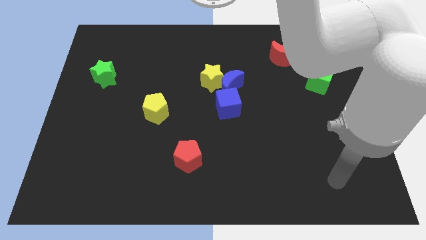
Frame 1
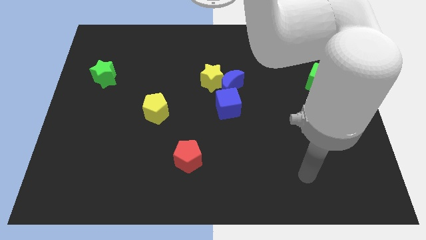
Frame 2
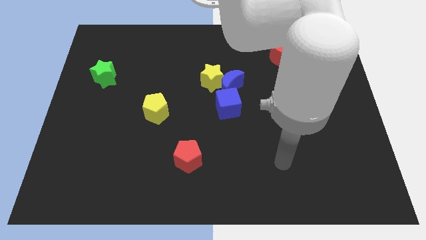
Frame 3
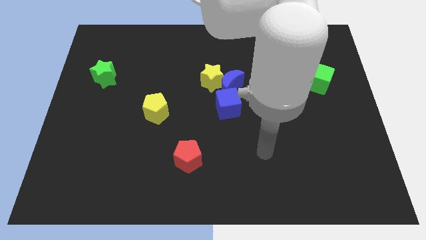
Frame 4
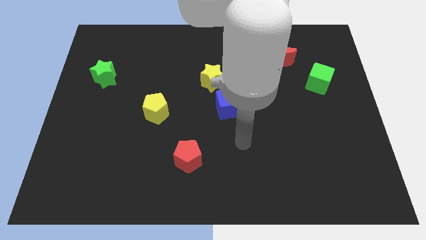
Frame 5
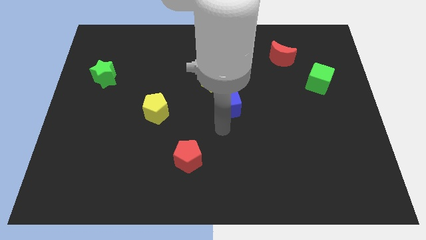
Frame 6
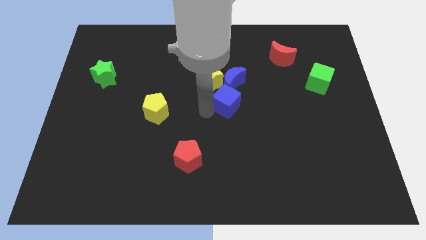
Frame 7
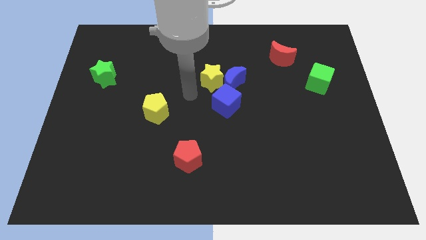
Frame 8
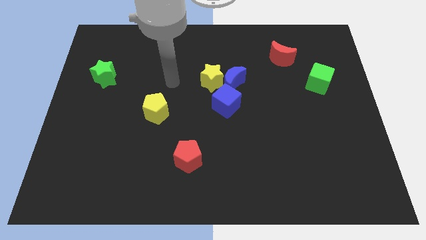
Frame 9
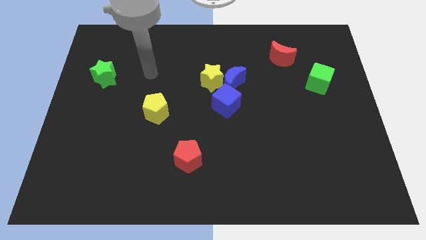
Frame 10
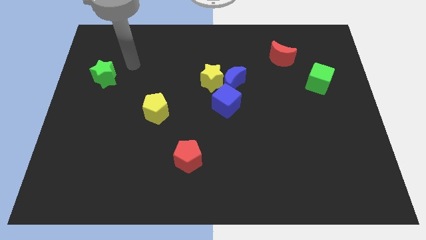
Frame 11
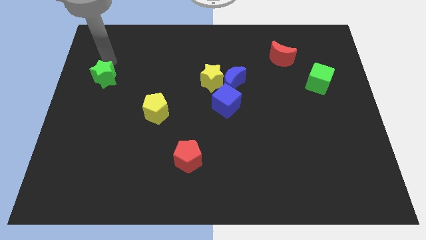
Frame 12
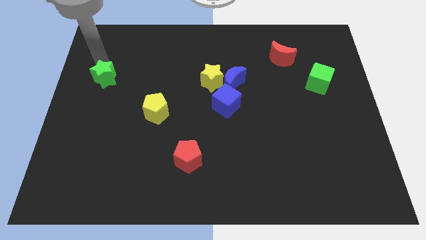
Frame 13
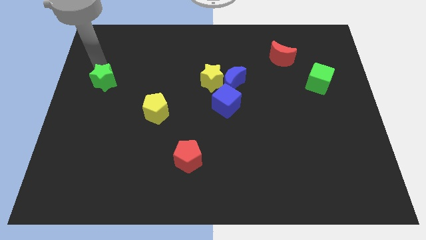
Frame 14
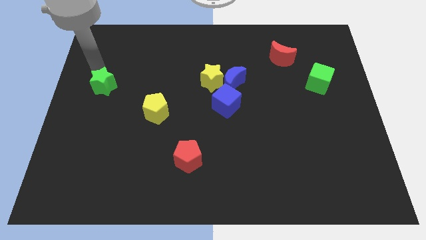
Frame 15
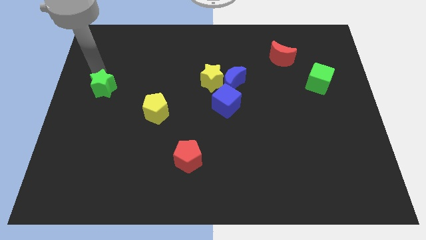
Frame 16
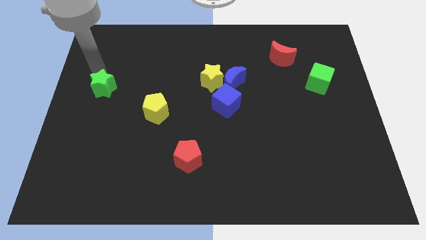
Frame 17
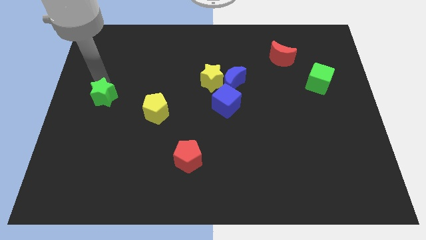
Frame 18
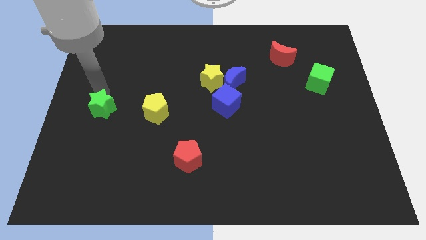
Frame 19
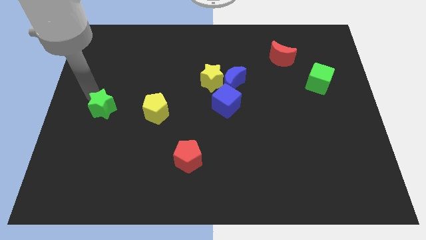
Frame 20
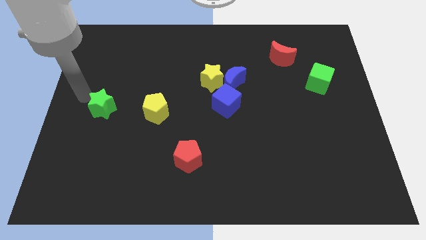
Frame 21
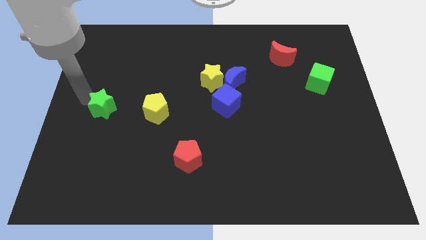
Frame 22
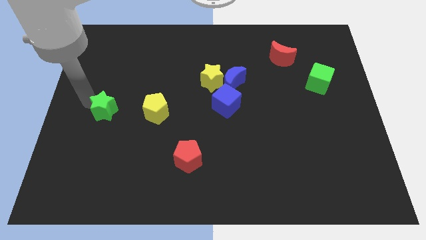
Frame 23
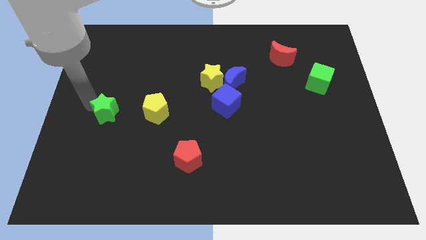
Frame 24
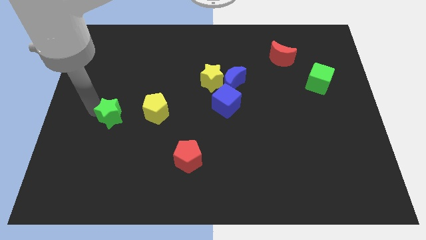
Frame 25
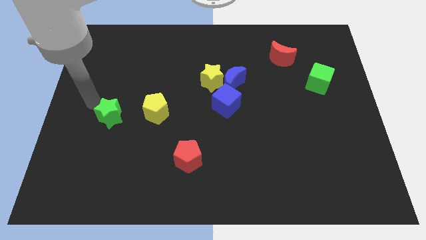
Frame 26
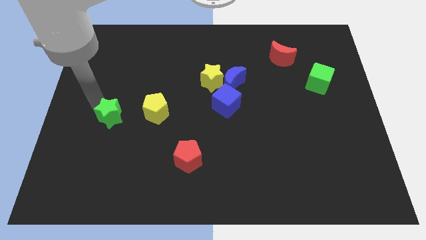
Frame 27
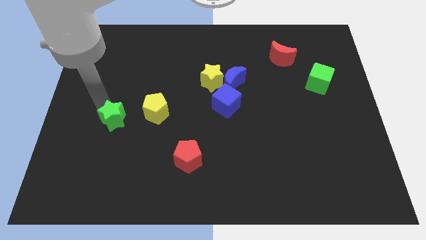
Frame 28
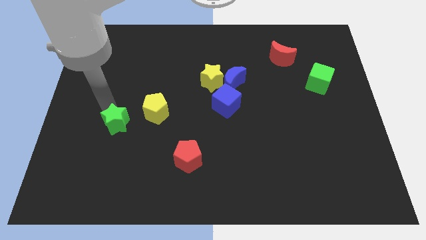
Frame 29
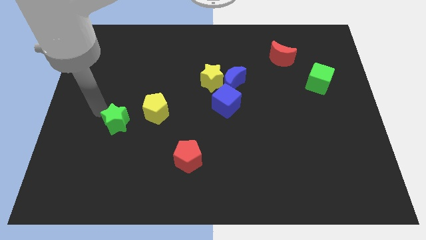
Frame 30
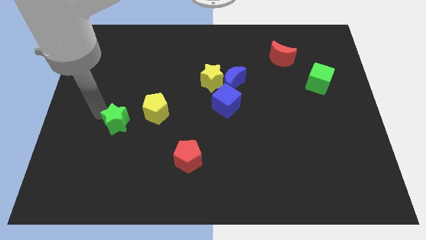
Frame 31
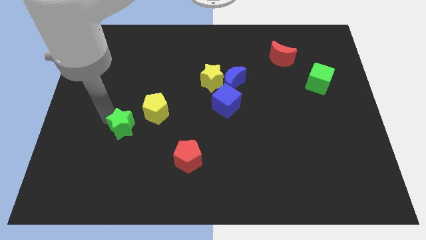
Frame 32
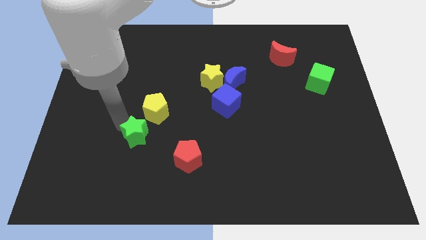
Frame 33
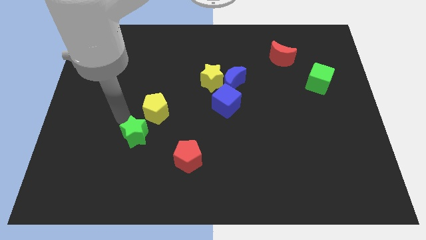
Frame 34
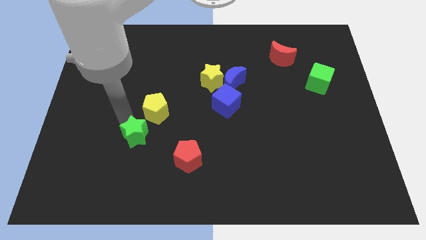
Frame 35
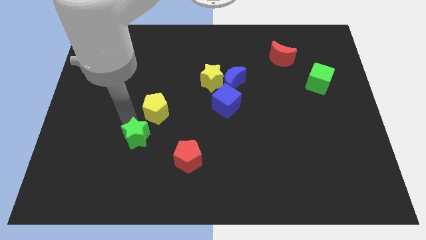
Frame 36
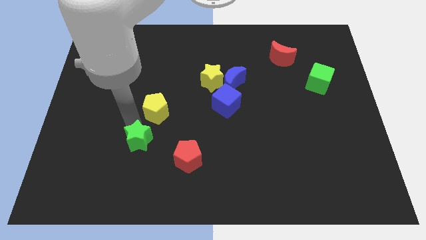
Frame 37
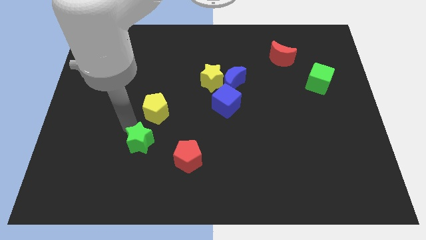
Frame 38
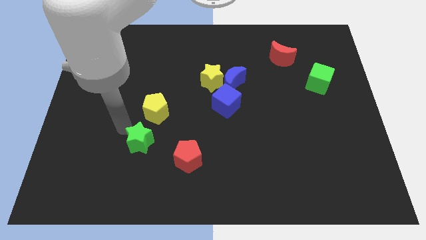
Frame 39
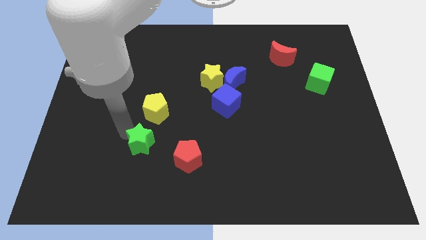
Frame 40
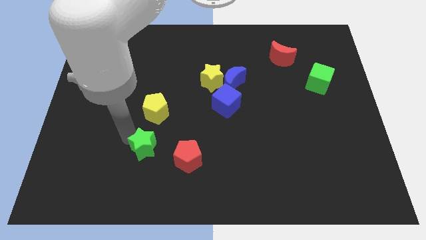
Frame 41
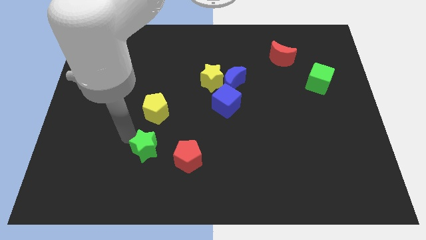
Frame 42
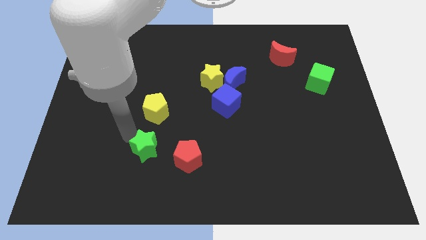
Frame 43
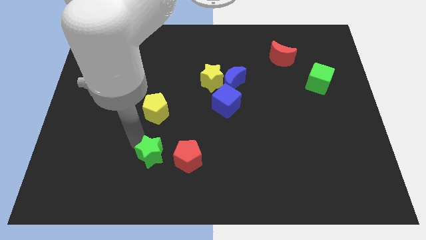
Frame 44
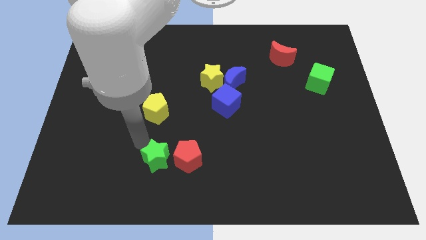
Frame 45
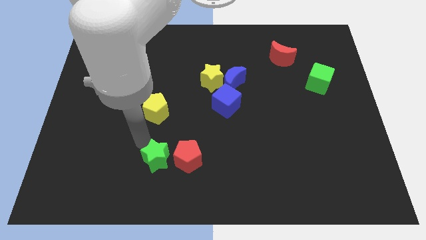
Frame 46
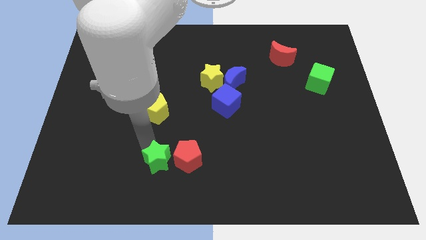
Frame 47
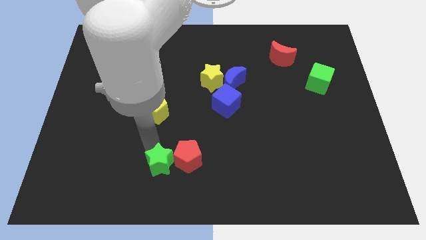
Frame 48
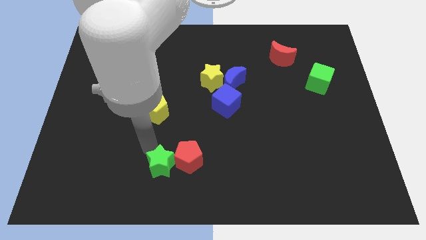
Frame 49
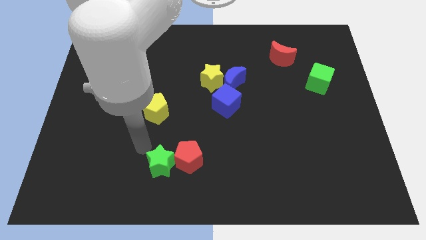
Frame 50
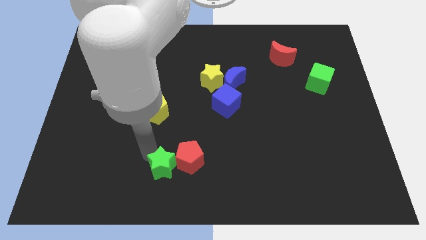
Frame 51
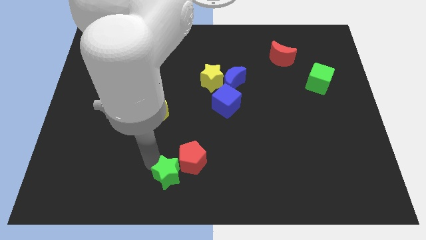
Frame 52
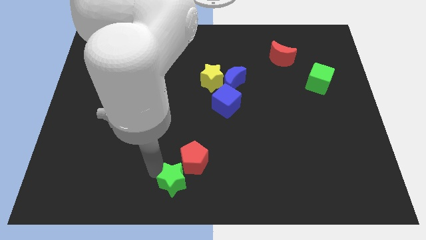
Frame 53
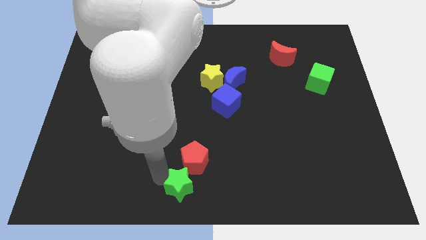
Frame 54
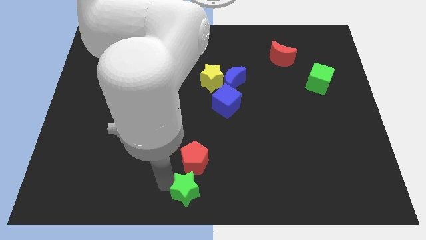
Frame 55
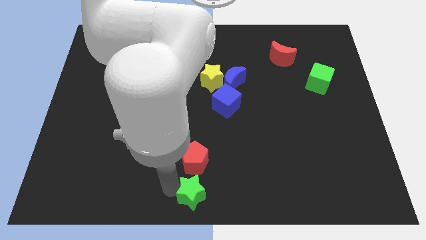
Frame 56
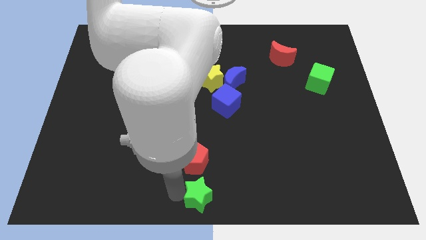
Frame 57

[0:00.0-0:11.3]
slide the green star to the bottom right side of the red pentagon

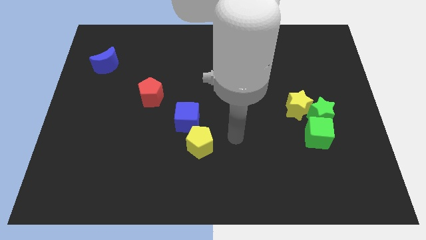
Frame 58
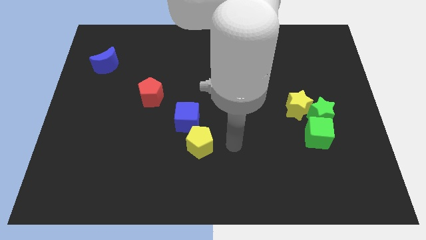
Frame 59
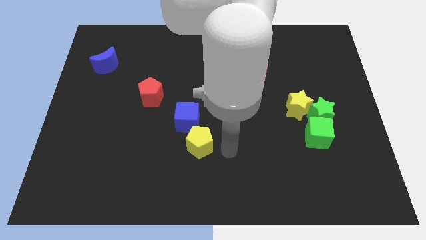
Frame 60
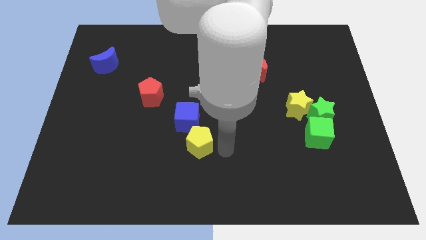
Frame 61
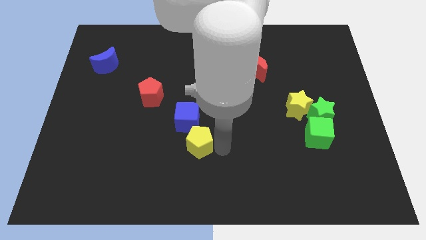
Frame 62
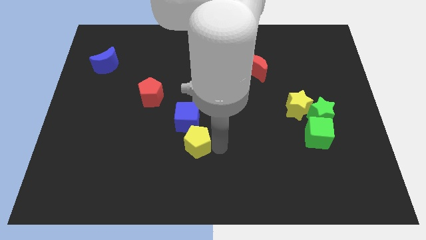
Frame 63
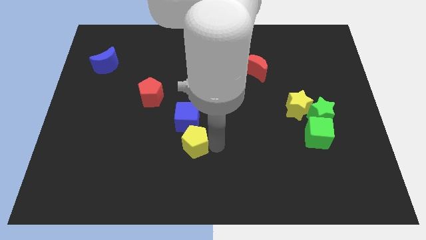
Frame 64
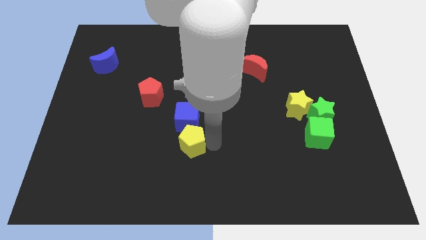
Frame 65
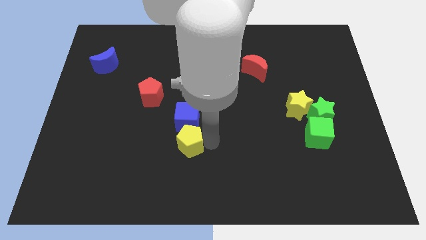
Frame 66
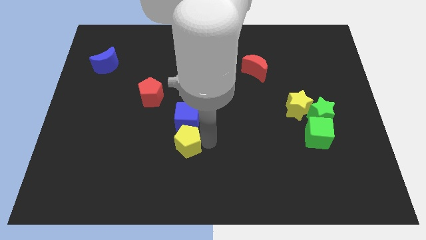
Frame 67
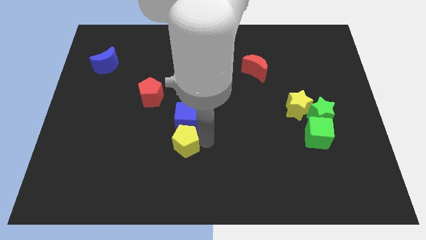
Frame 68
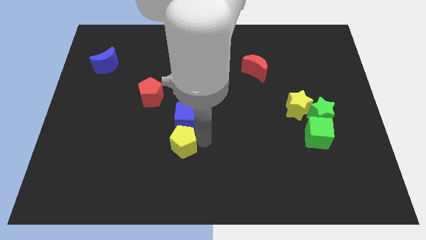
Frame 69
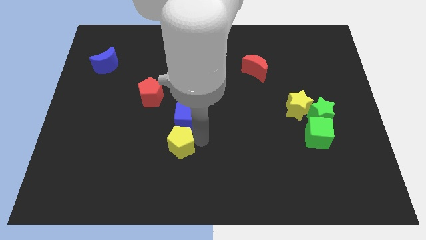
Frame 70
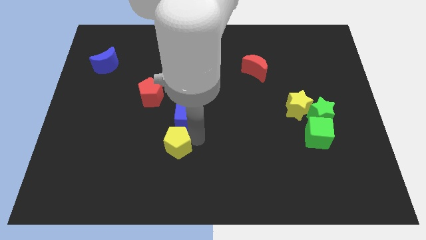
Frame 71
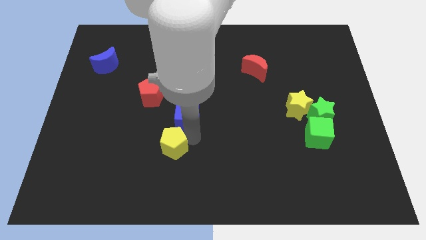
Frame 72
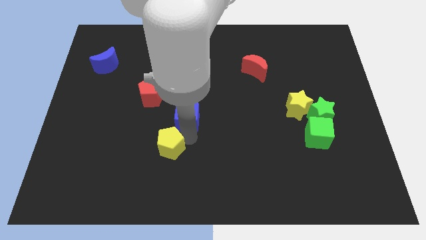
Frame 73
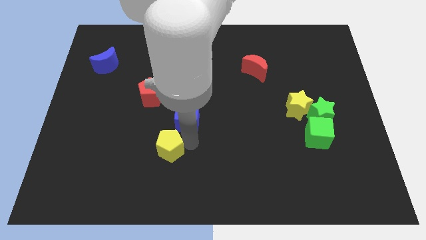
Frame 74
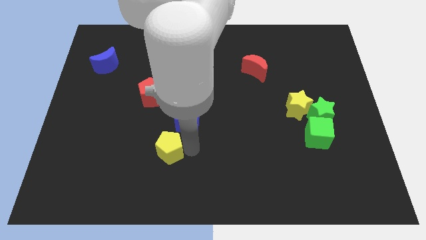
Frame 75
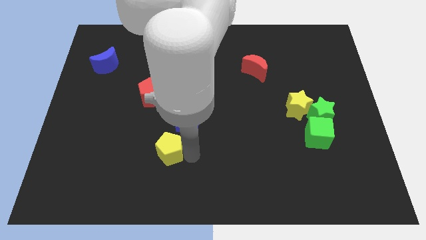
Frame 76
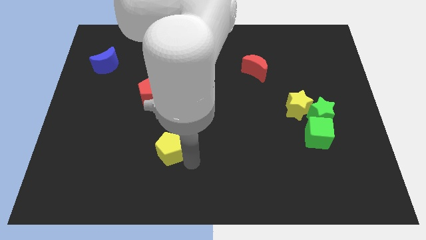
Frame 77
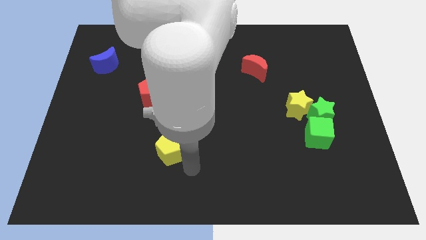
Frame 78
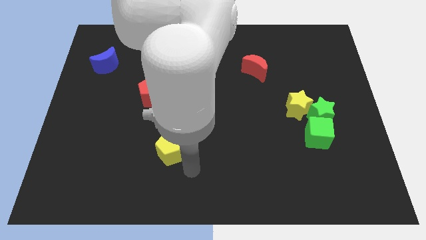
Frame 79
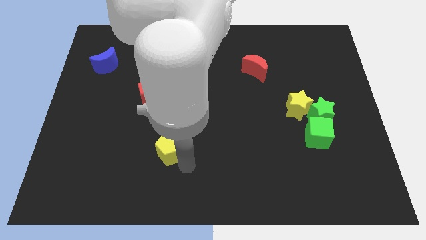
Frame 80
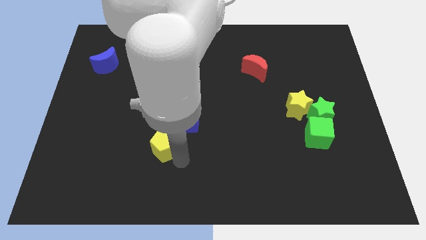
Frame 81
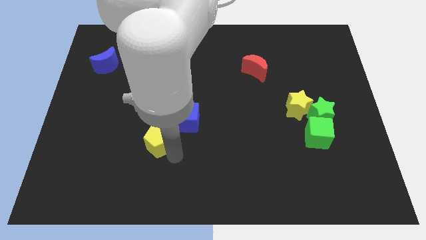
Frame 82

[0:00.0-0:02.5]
slide the yellow pentagon to the bottom of the red pentagon
